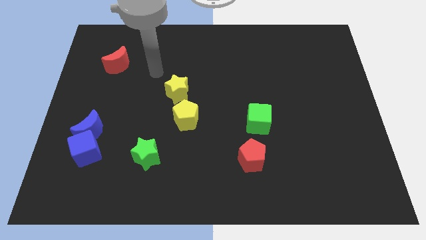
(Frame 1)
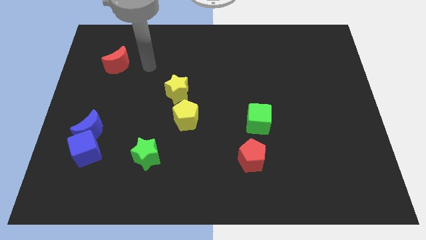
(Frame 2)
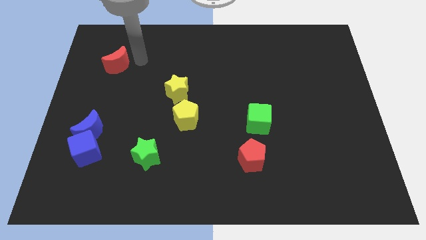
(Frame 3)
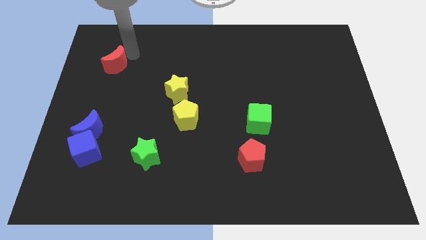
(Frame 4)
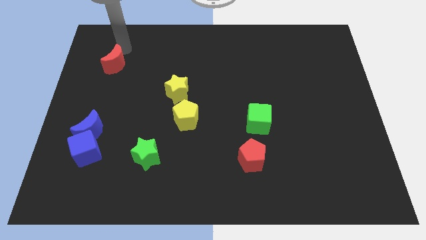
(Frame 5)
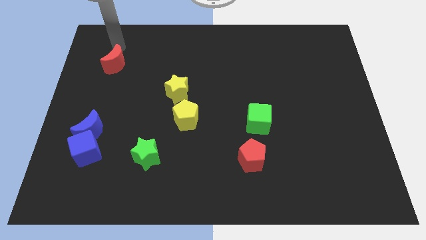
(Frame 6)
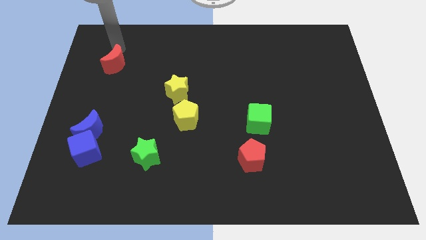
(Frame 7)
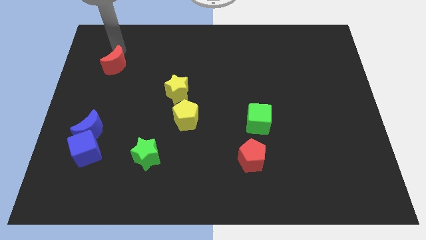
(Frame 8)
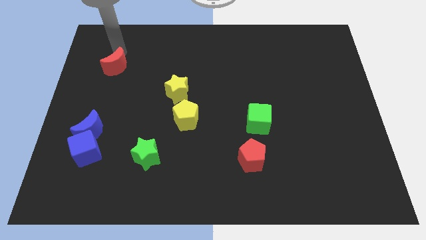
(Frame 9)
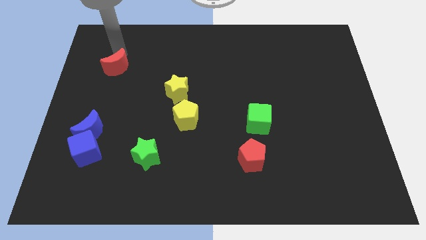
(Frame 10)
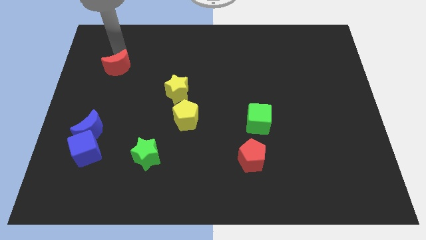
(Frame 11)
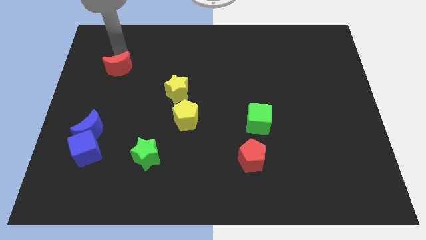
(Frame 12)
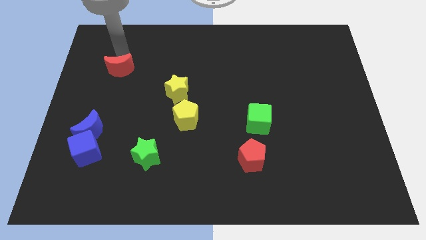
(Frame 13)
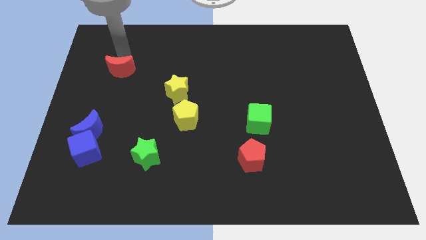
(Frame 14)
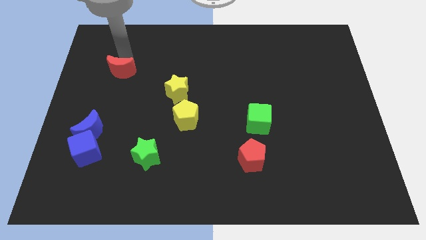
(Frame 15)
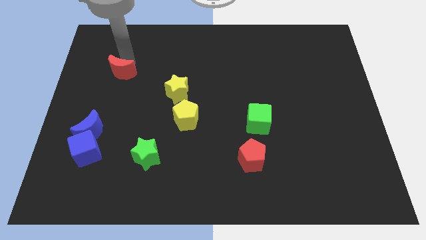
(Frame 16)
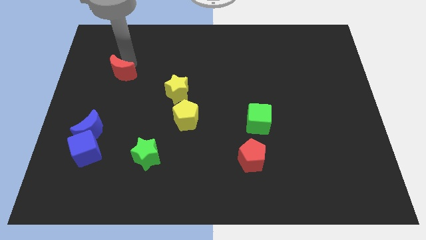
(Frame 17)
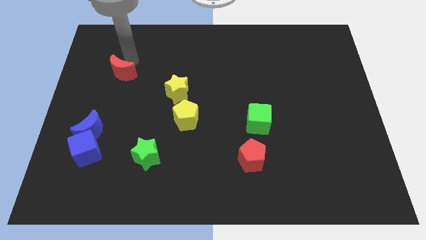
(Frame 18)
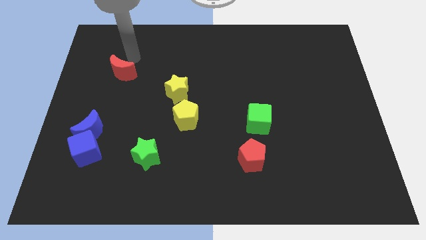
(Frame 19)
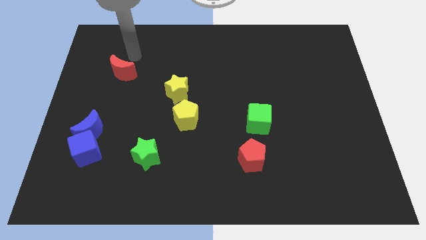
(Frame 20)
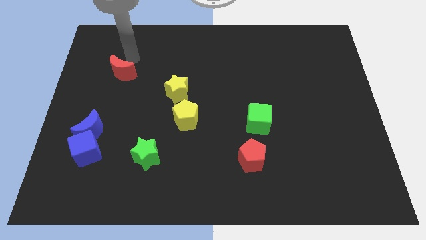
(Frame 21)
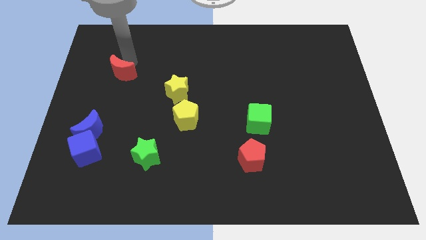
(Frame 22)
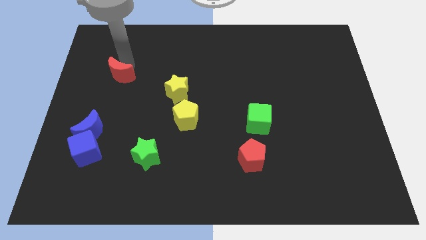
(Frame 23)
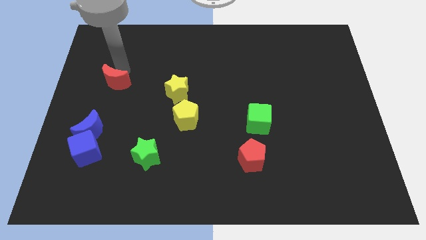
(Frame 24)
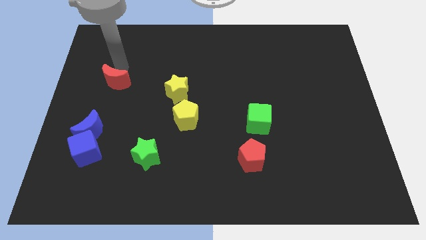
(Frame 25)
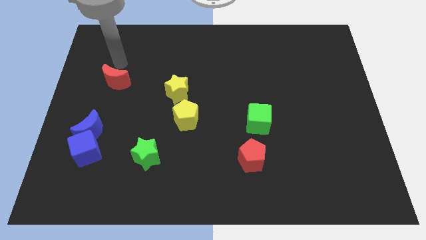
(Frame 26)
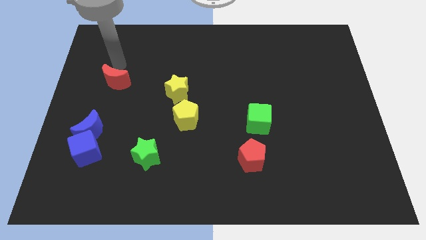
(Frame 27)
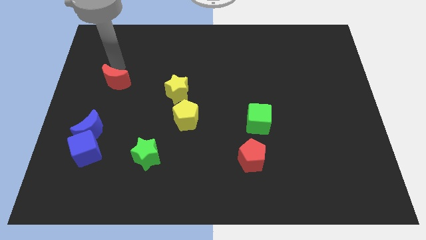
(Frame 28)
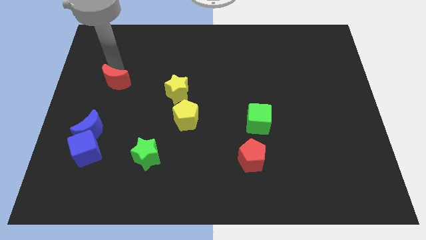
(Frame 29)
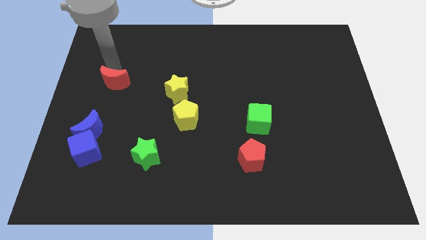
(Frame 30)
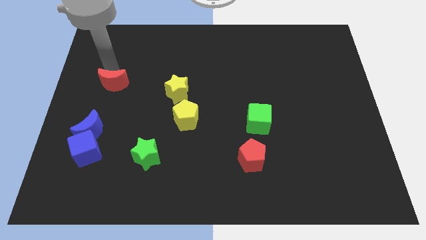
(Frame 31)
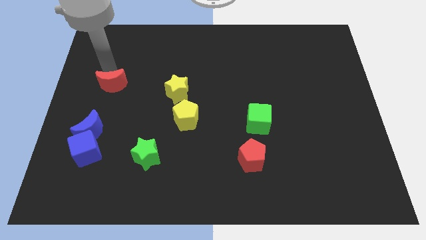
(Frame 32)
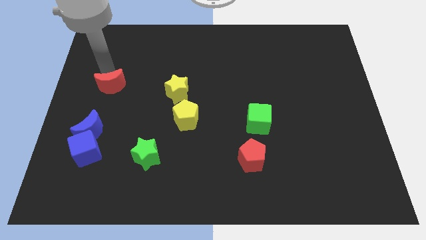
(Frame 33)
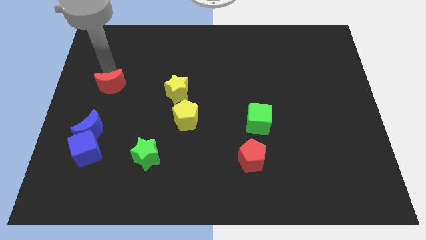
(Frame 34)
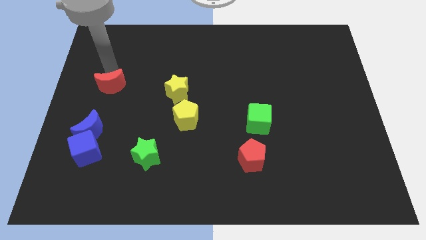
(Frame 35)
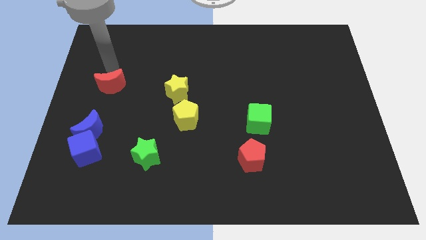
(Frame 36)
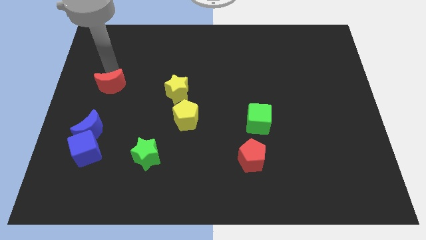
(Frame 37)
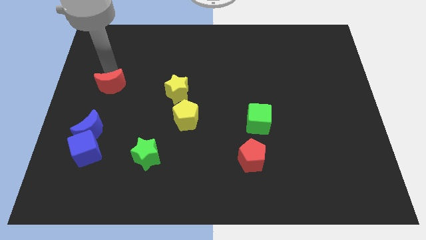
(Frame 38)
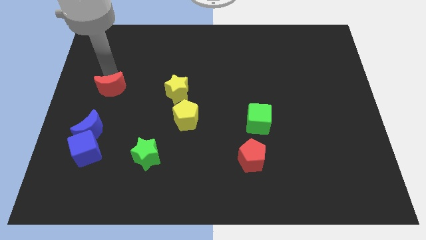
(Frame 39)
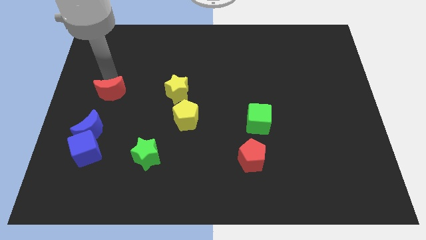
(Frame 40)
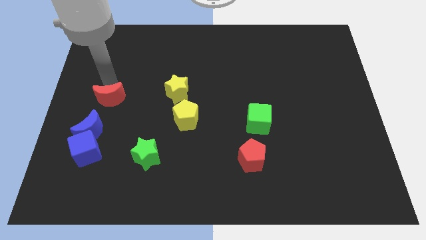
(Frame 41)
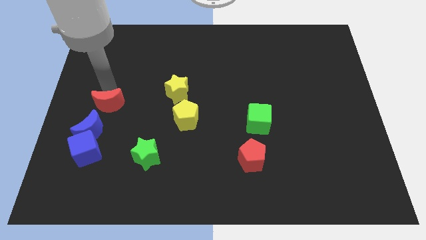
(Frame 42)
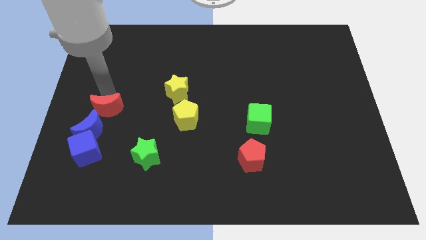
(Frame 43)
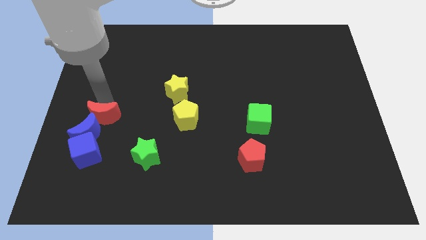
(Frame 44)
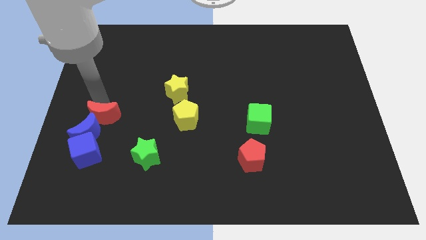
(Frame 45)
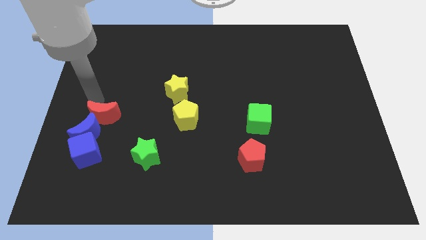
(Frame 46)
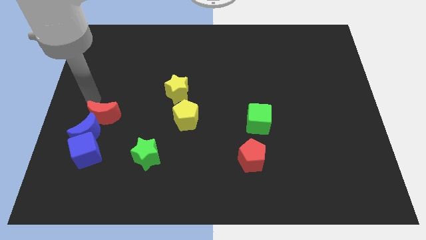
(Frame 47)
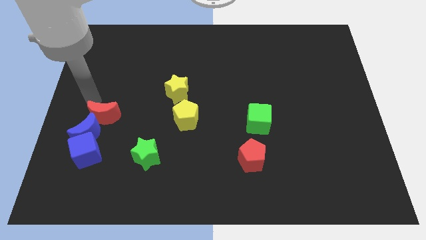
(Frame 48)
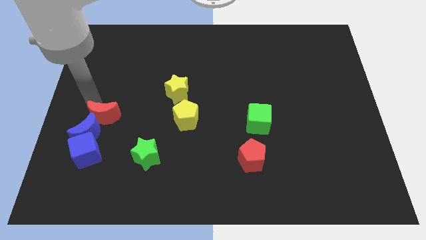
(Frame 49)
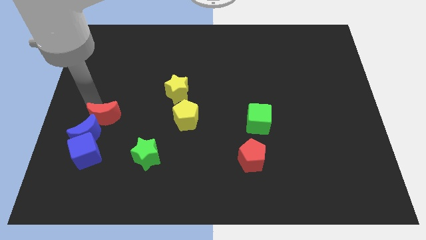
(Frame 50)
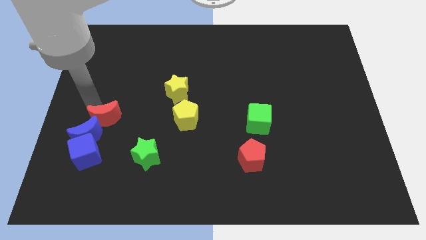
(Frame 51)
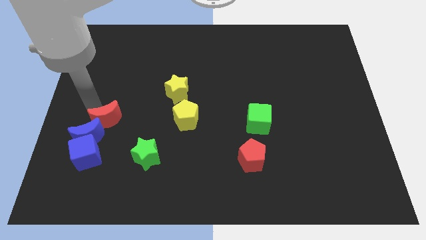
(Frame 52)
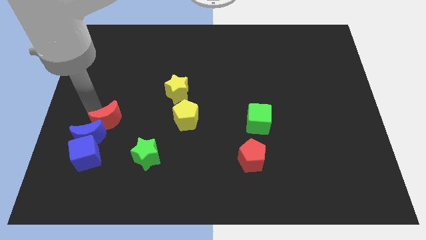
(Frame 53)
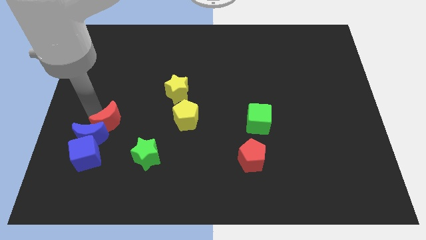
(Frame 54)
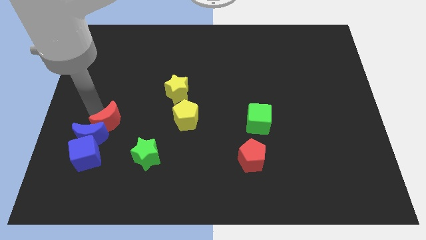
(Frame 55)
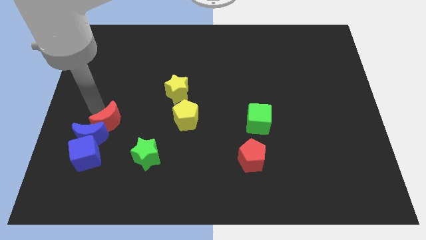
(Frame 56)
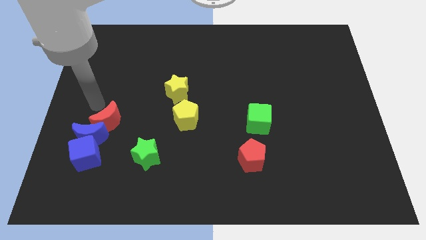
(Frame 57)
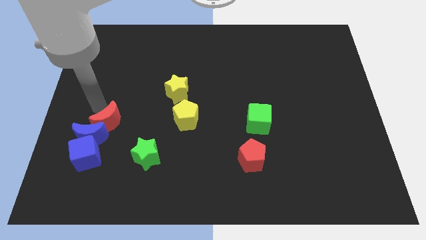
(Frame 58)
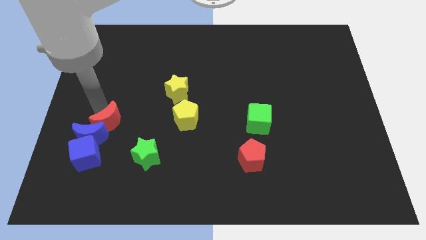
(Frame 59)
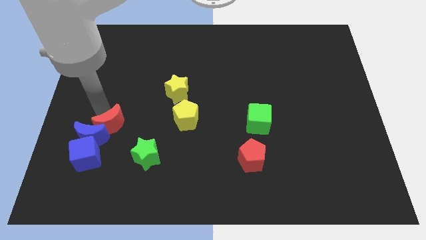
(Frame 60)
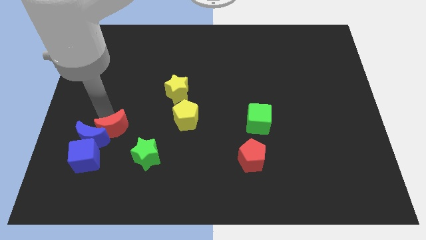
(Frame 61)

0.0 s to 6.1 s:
push the red moon downwards

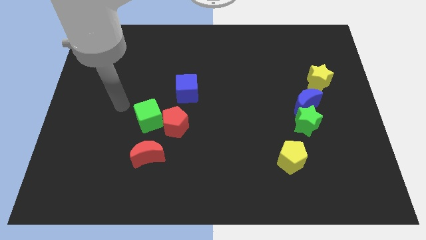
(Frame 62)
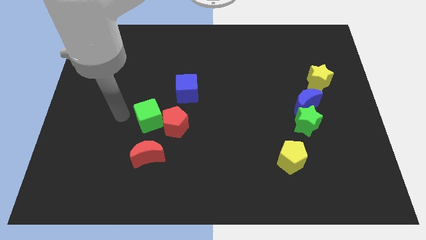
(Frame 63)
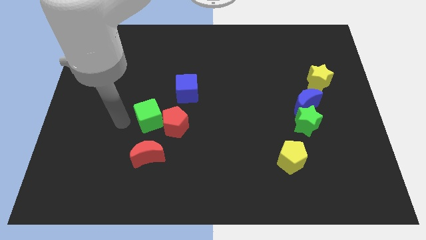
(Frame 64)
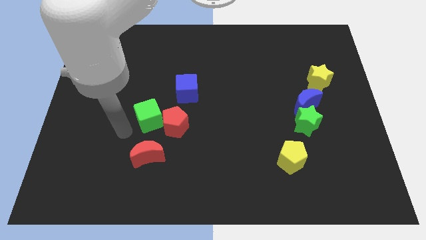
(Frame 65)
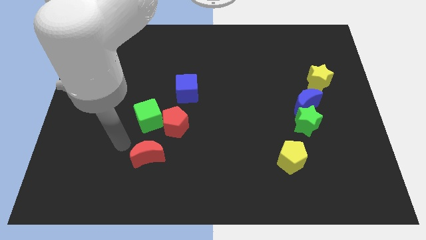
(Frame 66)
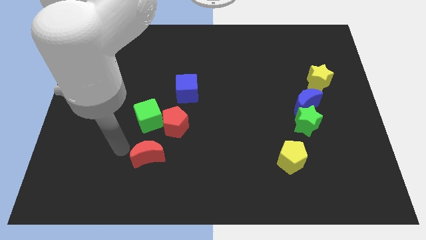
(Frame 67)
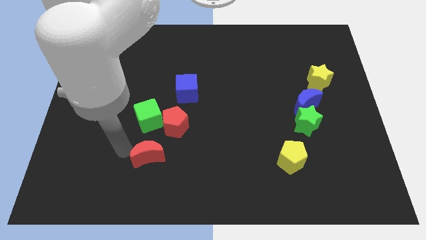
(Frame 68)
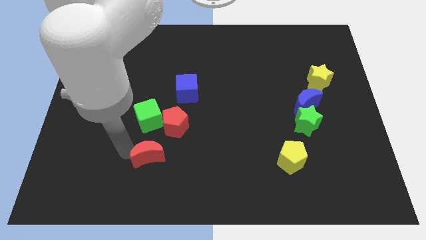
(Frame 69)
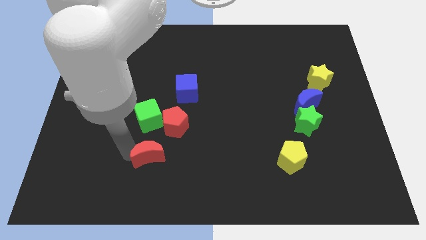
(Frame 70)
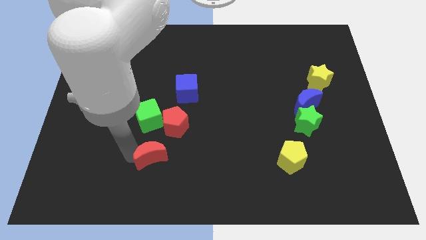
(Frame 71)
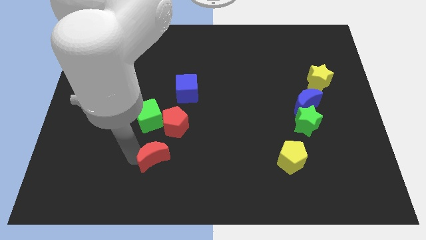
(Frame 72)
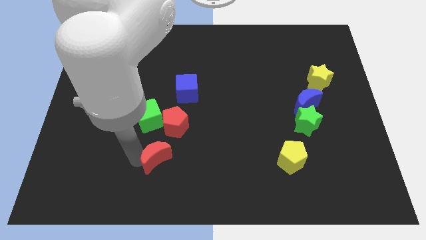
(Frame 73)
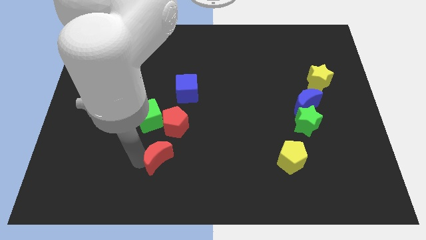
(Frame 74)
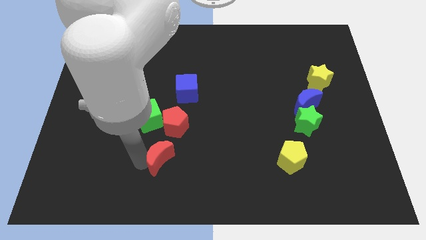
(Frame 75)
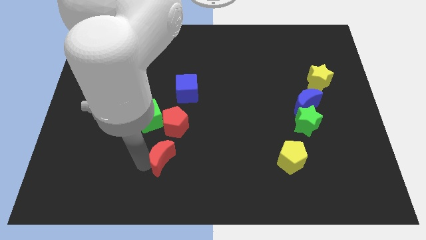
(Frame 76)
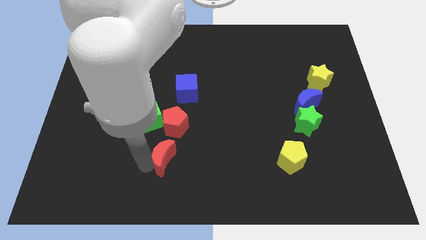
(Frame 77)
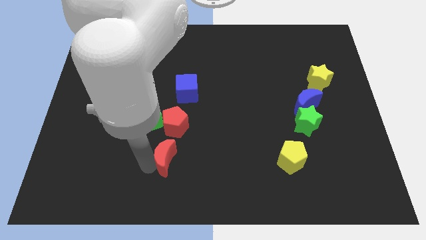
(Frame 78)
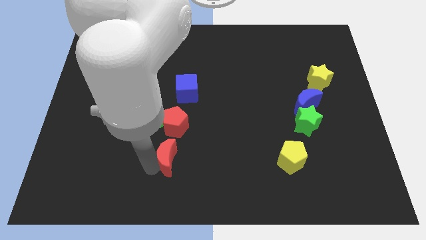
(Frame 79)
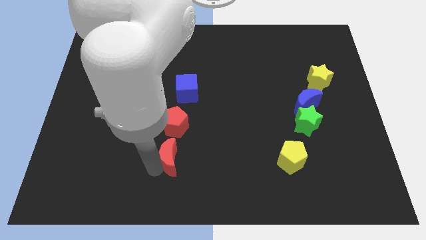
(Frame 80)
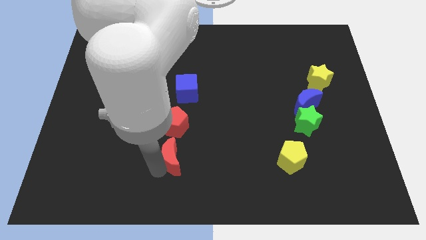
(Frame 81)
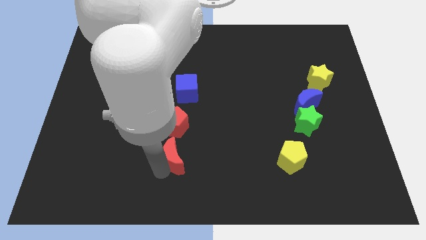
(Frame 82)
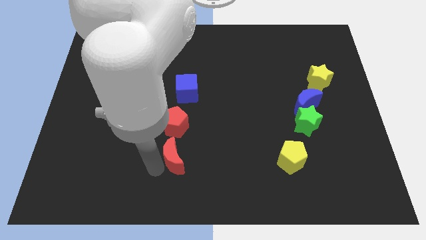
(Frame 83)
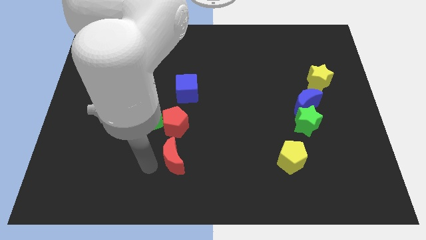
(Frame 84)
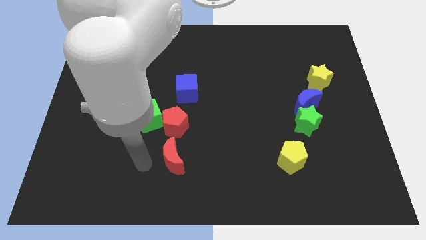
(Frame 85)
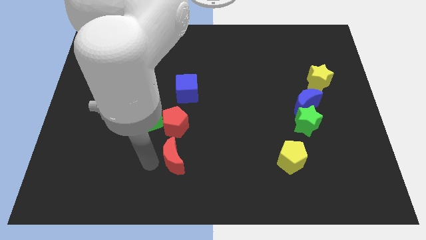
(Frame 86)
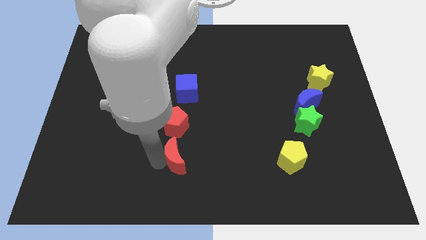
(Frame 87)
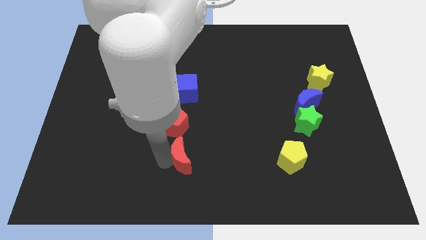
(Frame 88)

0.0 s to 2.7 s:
push the red moon slightly to the right
